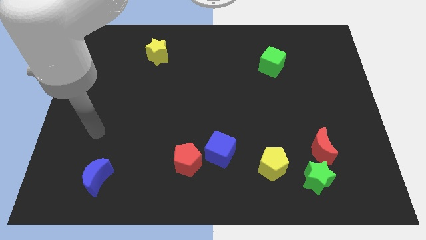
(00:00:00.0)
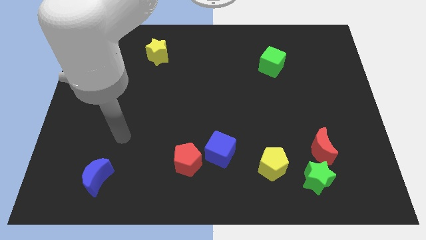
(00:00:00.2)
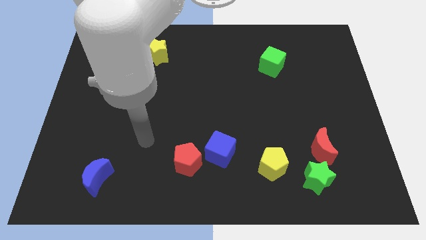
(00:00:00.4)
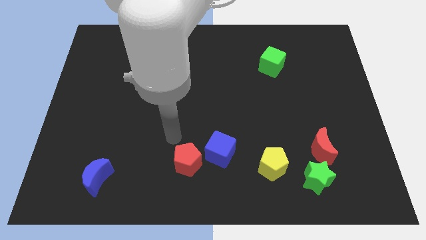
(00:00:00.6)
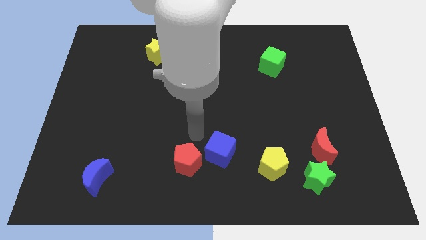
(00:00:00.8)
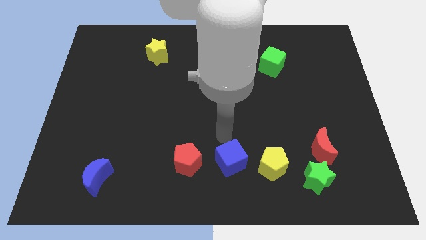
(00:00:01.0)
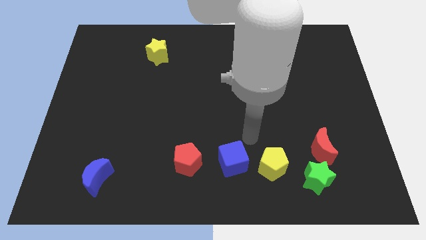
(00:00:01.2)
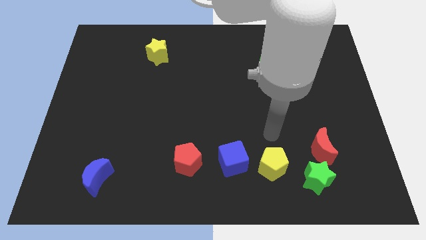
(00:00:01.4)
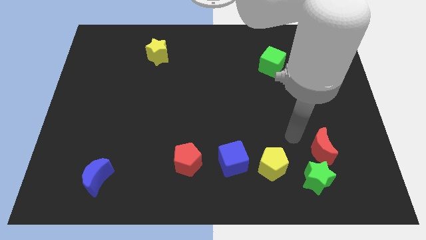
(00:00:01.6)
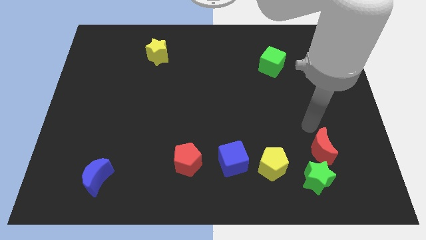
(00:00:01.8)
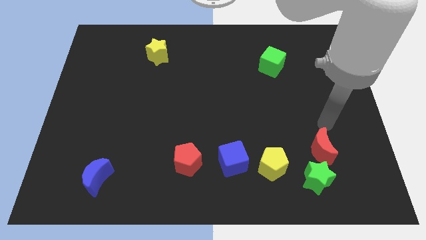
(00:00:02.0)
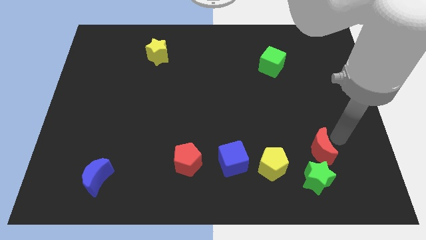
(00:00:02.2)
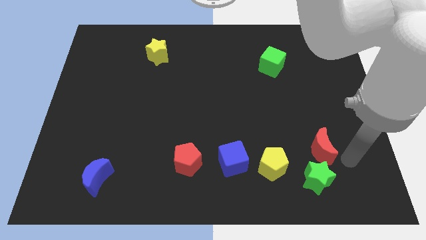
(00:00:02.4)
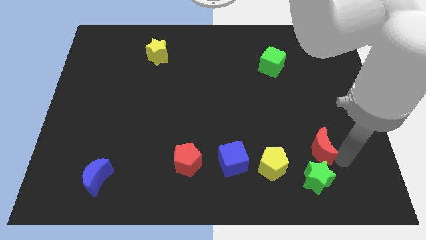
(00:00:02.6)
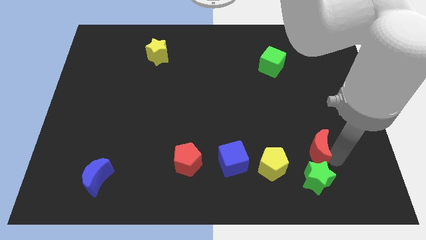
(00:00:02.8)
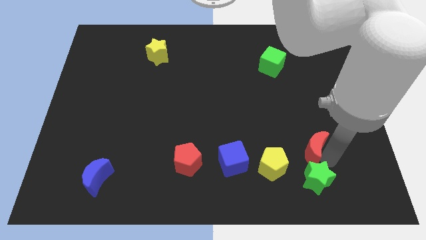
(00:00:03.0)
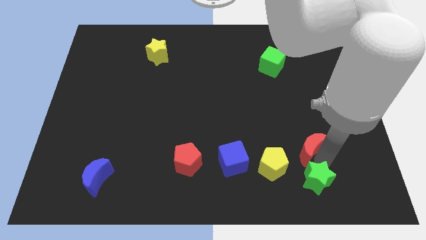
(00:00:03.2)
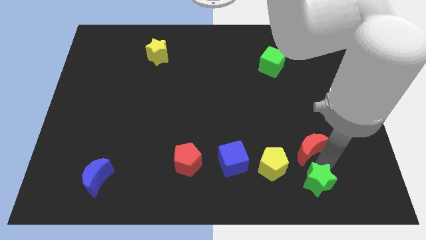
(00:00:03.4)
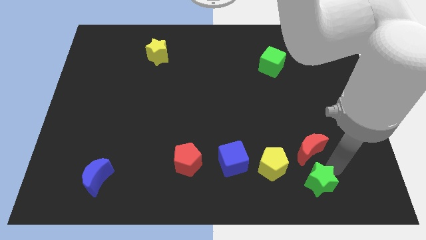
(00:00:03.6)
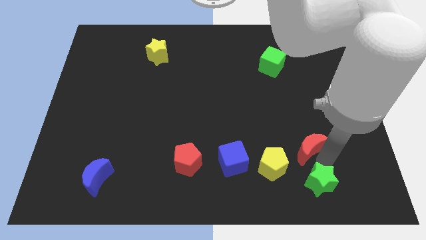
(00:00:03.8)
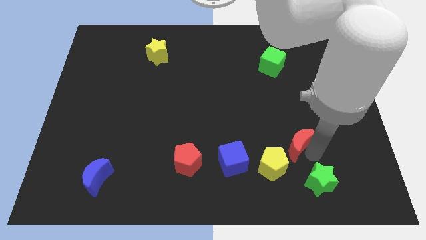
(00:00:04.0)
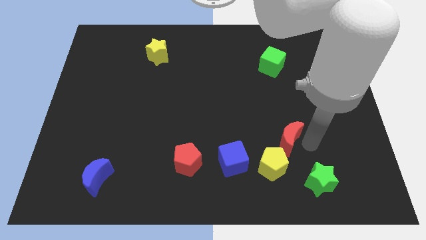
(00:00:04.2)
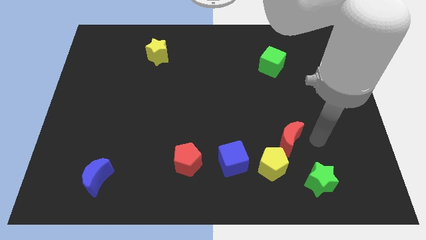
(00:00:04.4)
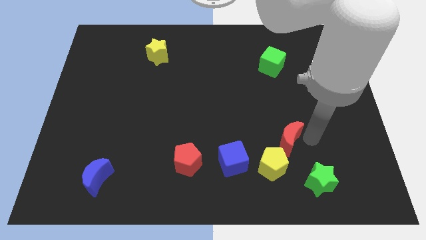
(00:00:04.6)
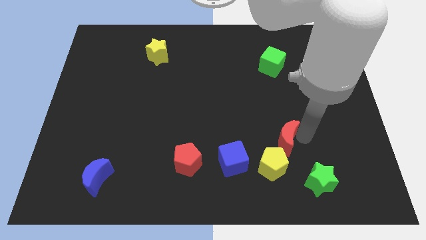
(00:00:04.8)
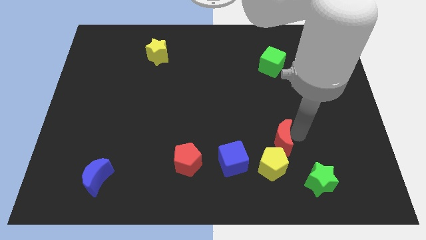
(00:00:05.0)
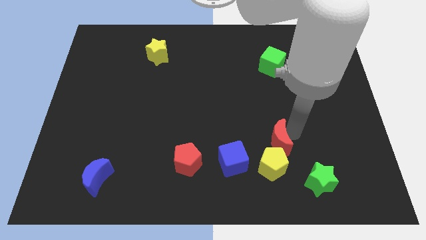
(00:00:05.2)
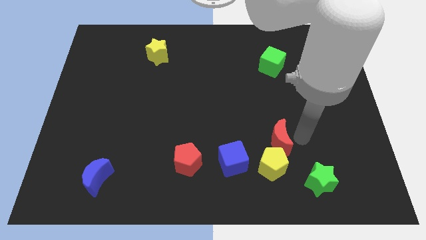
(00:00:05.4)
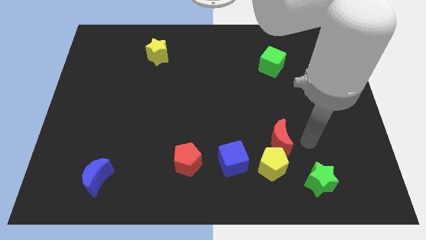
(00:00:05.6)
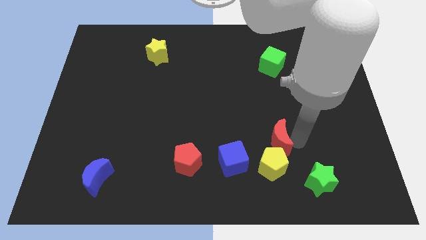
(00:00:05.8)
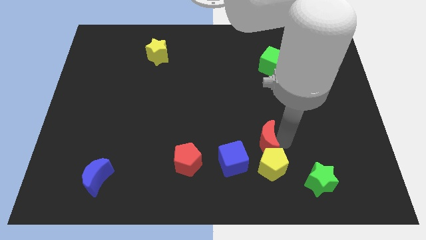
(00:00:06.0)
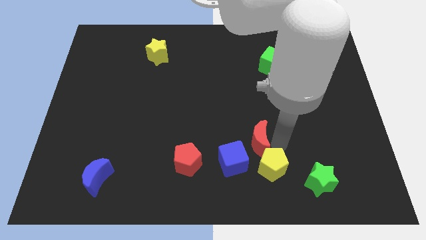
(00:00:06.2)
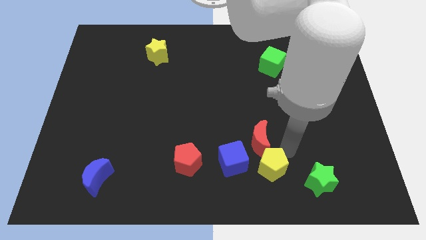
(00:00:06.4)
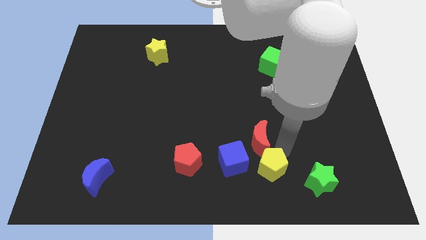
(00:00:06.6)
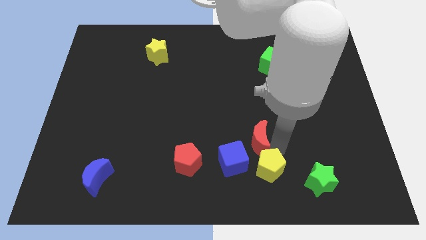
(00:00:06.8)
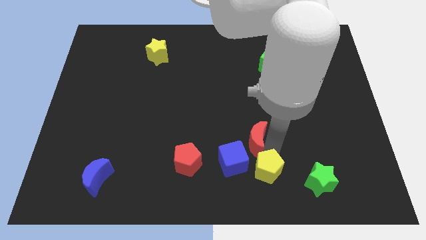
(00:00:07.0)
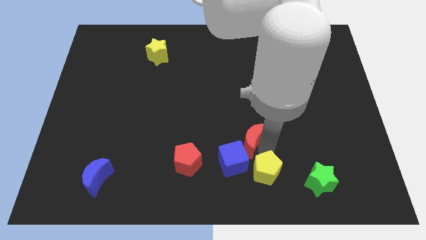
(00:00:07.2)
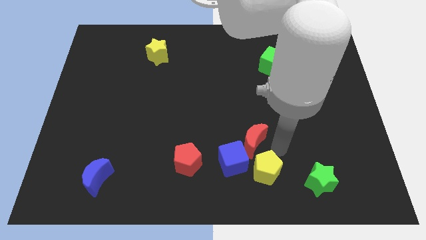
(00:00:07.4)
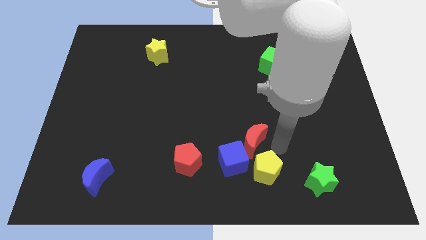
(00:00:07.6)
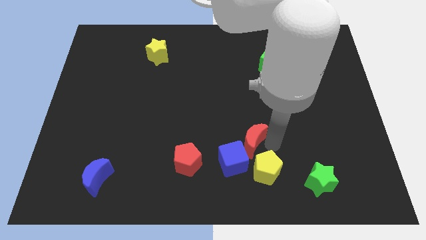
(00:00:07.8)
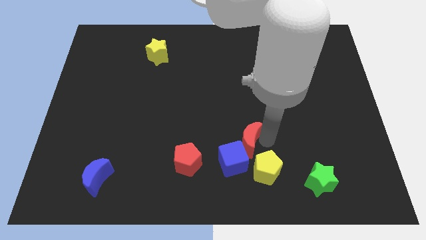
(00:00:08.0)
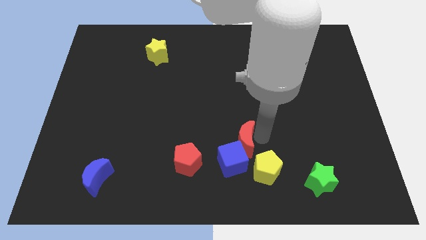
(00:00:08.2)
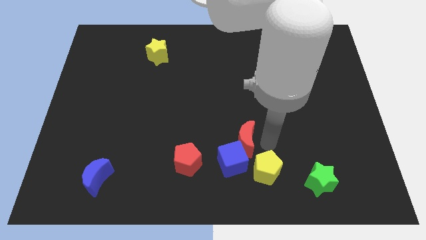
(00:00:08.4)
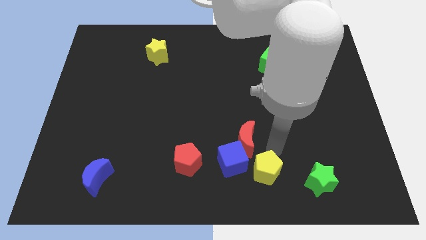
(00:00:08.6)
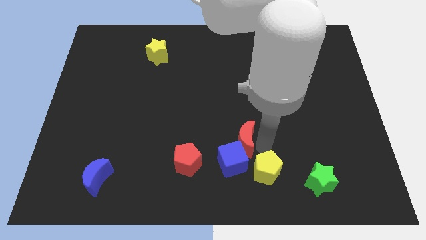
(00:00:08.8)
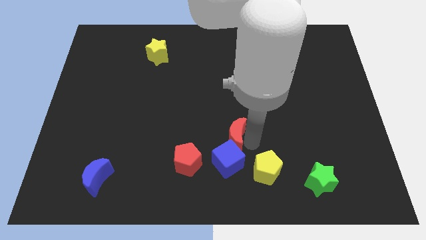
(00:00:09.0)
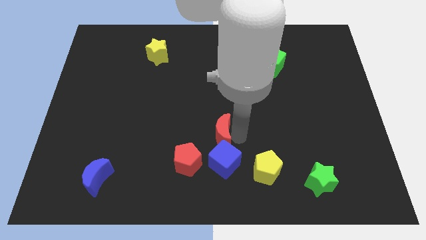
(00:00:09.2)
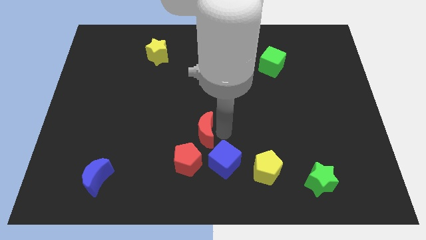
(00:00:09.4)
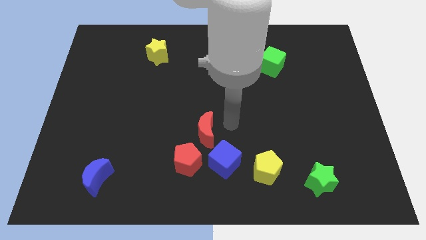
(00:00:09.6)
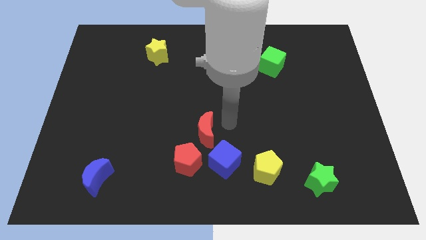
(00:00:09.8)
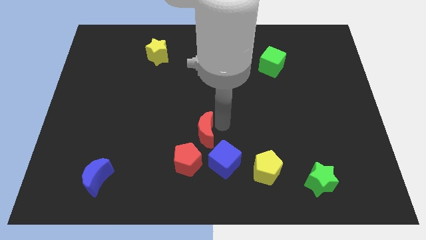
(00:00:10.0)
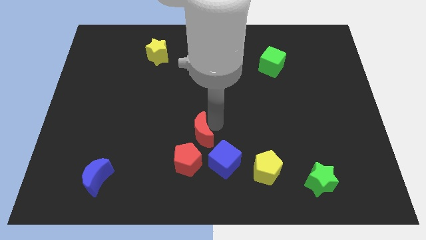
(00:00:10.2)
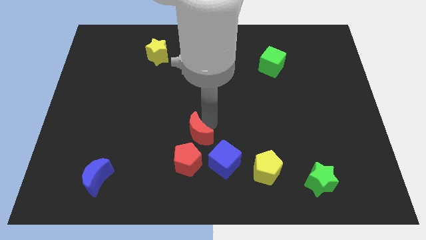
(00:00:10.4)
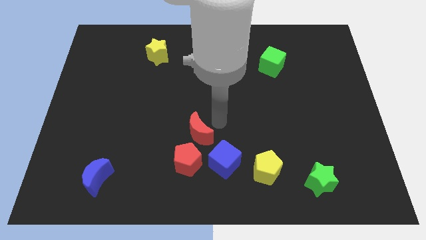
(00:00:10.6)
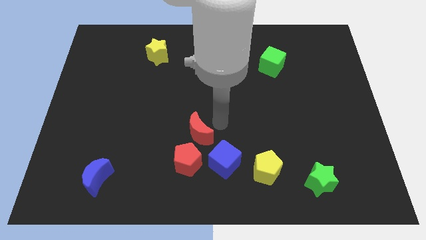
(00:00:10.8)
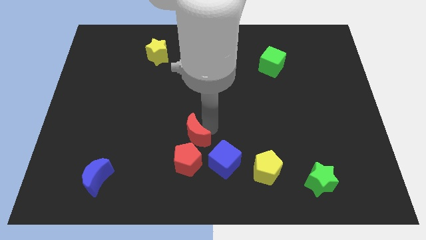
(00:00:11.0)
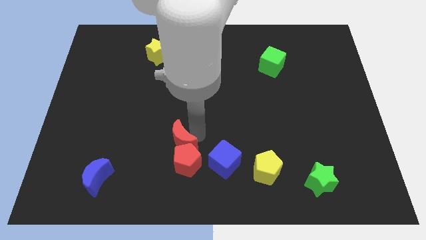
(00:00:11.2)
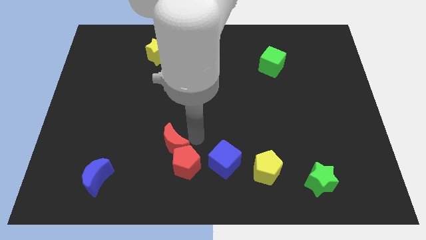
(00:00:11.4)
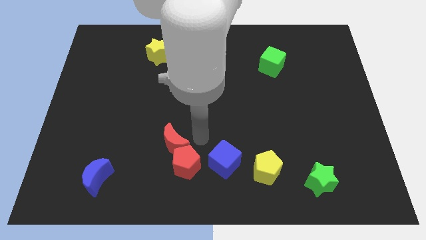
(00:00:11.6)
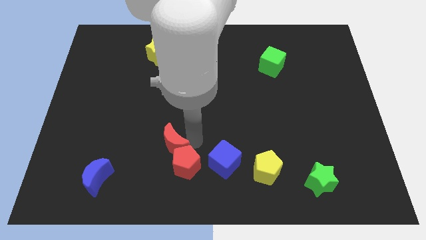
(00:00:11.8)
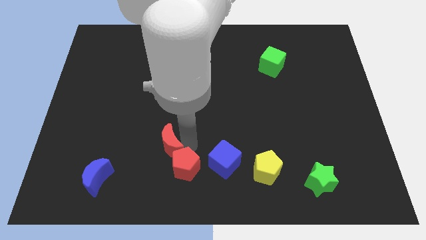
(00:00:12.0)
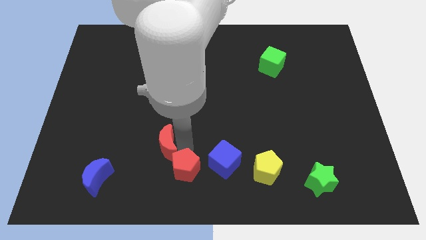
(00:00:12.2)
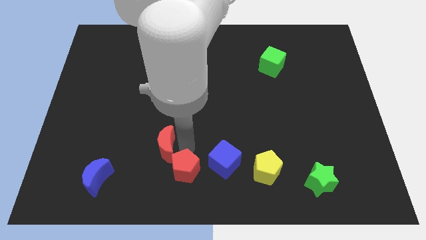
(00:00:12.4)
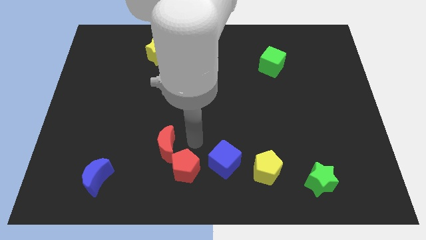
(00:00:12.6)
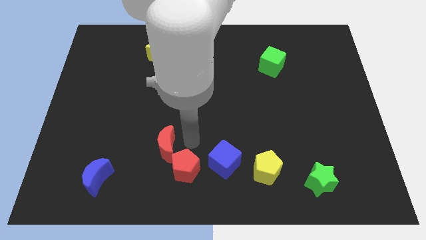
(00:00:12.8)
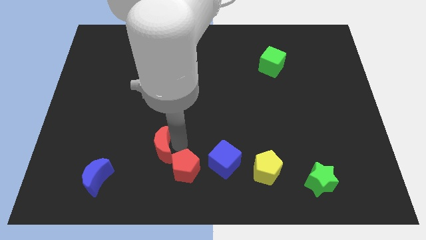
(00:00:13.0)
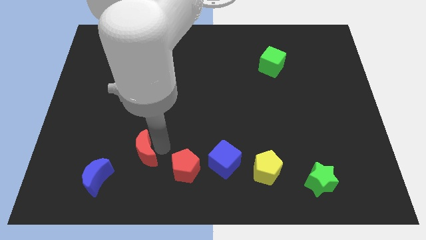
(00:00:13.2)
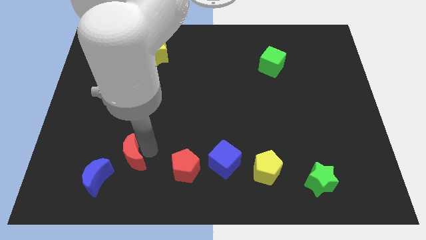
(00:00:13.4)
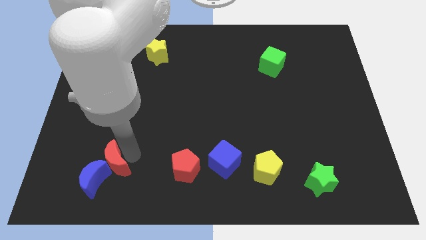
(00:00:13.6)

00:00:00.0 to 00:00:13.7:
move the red moon next to the blue moon
